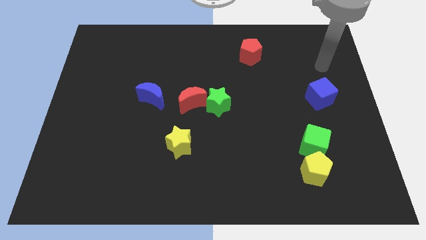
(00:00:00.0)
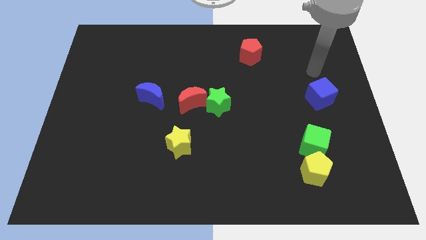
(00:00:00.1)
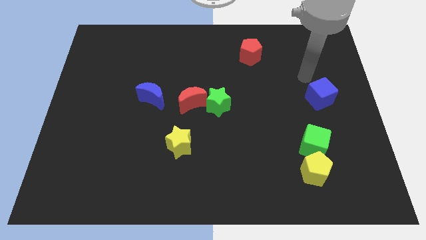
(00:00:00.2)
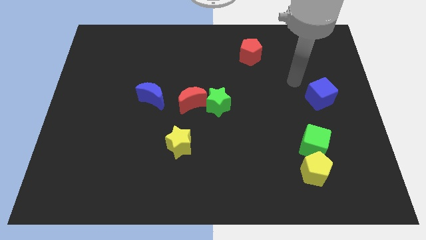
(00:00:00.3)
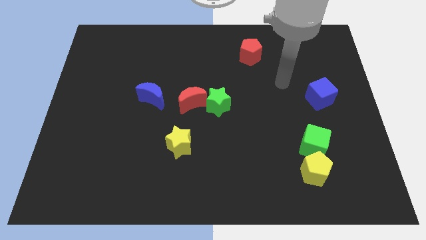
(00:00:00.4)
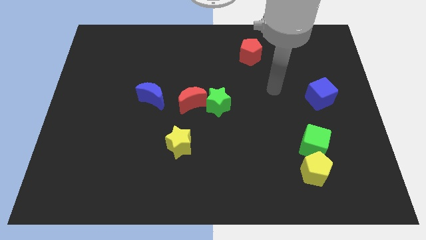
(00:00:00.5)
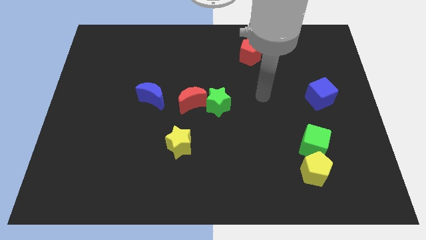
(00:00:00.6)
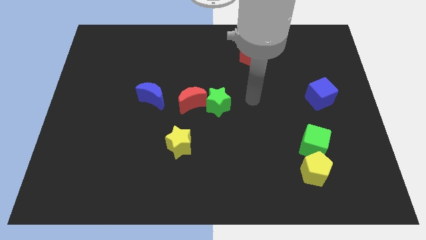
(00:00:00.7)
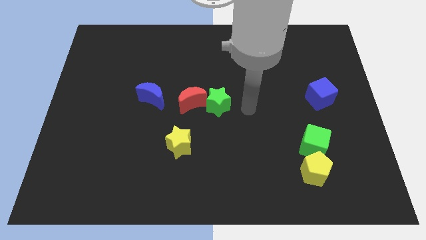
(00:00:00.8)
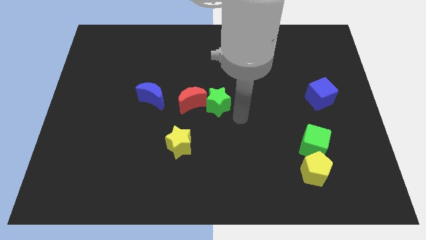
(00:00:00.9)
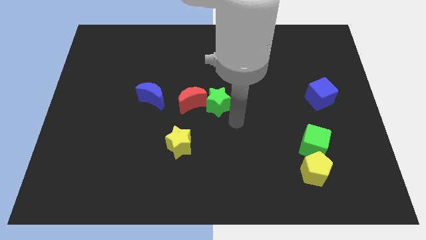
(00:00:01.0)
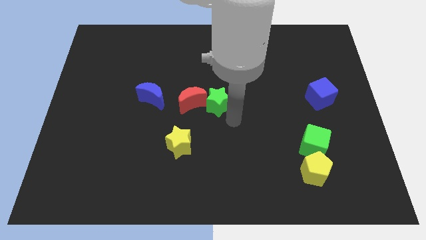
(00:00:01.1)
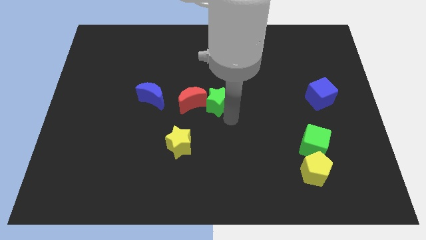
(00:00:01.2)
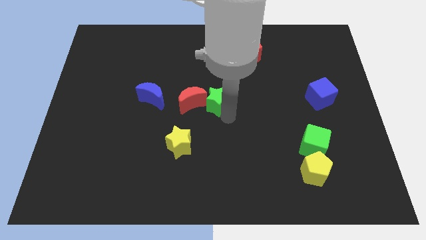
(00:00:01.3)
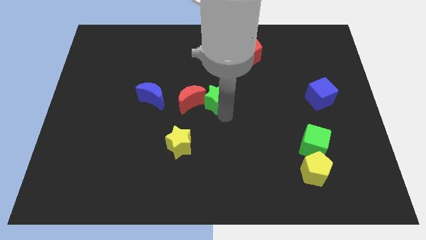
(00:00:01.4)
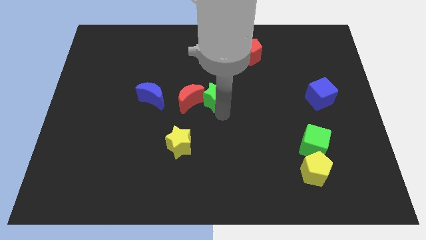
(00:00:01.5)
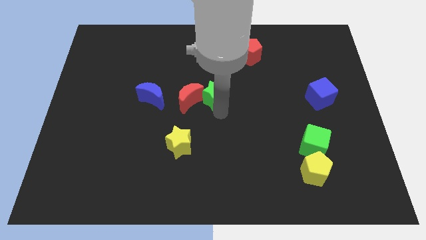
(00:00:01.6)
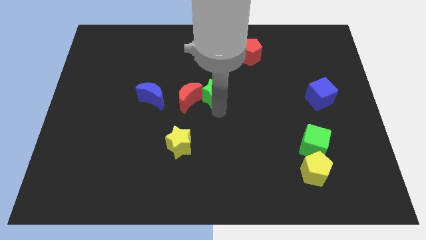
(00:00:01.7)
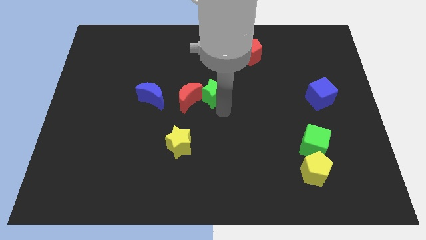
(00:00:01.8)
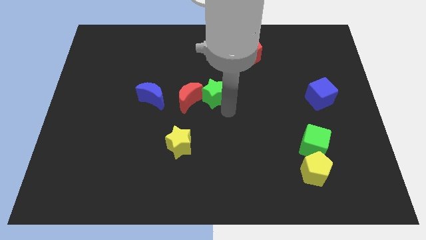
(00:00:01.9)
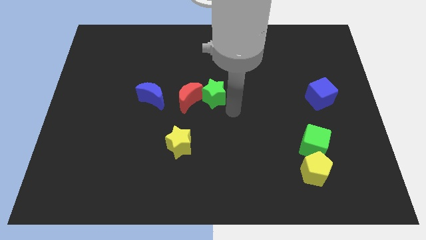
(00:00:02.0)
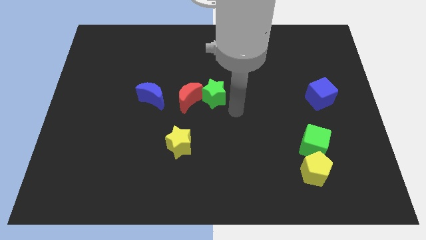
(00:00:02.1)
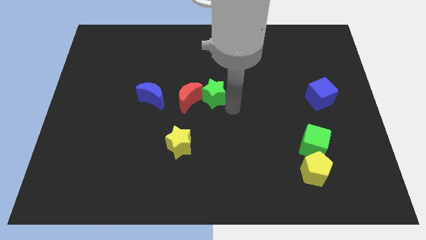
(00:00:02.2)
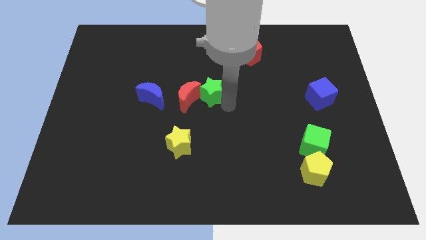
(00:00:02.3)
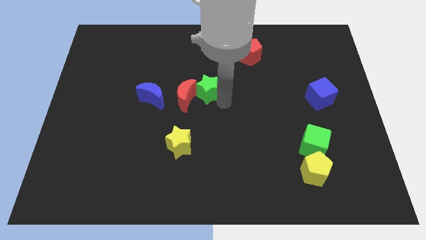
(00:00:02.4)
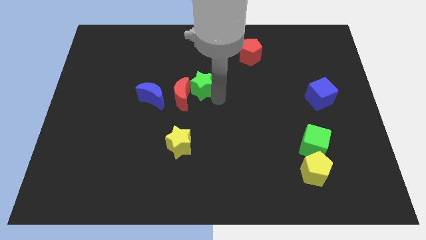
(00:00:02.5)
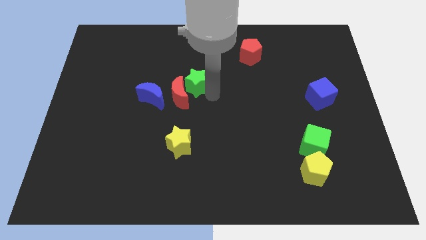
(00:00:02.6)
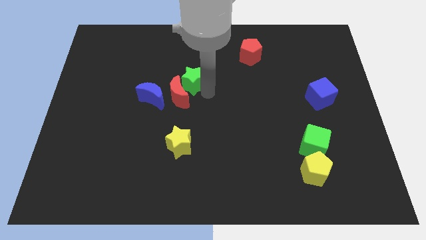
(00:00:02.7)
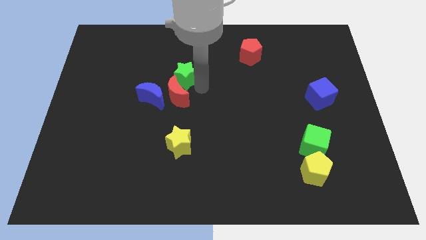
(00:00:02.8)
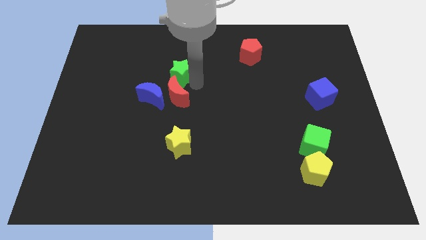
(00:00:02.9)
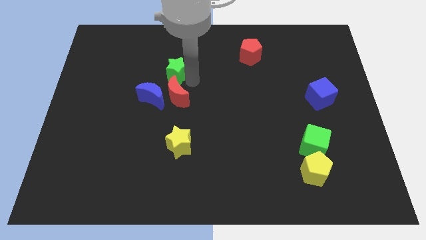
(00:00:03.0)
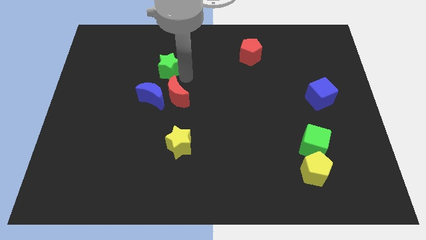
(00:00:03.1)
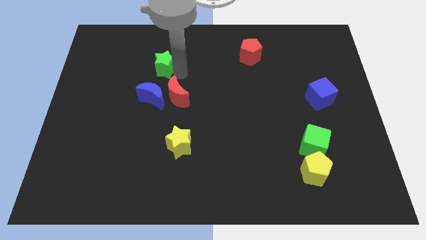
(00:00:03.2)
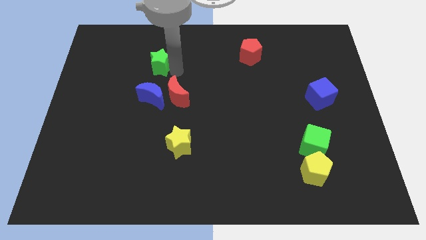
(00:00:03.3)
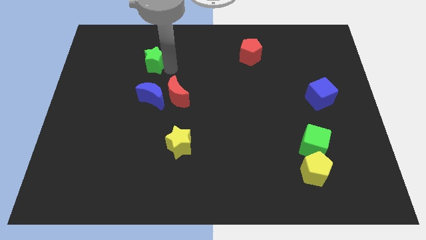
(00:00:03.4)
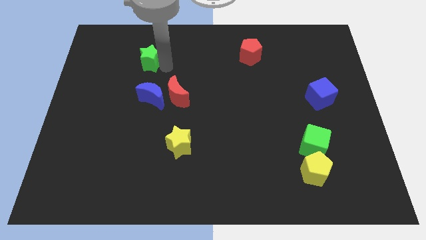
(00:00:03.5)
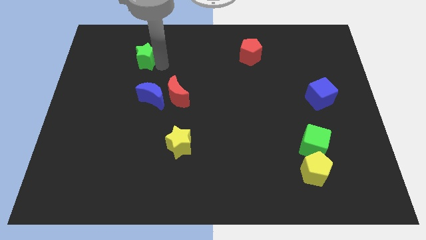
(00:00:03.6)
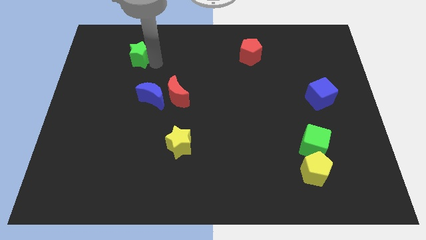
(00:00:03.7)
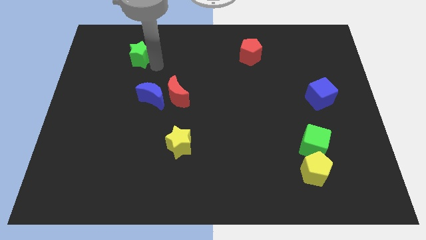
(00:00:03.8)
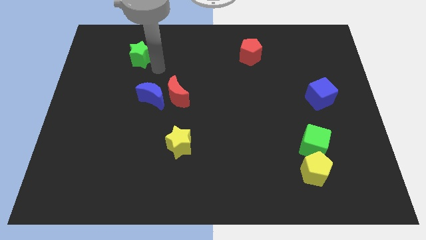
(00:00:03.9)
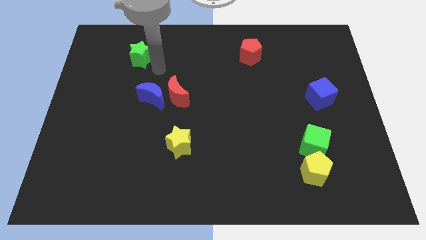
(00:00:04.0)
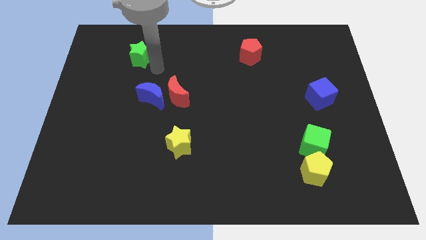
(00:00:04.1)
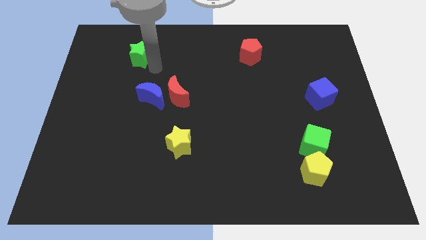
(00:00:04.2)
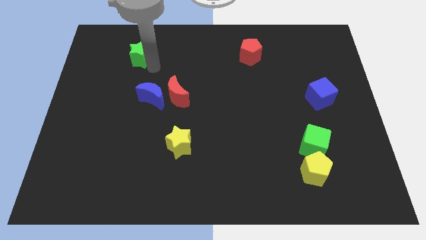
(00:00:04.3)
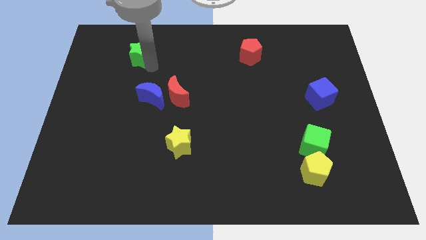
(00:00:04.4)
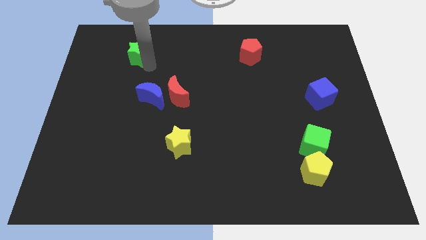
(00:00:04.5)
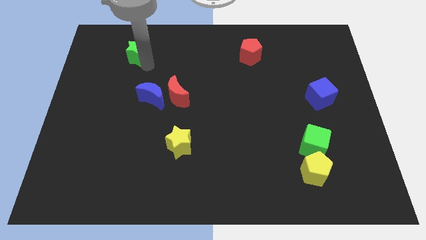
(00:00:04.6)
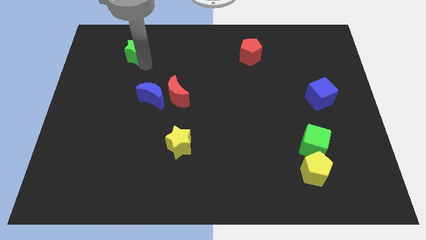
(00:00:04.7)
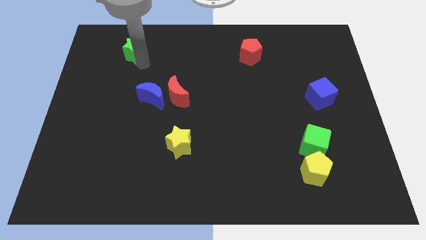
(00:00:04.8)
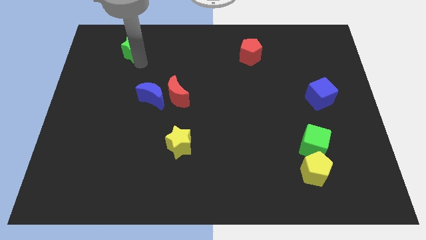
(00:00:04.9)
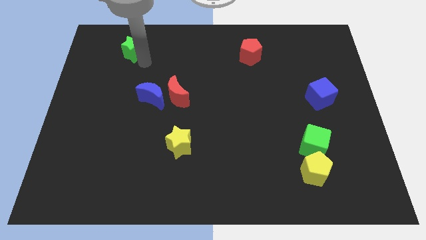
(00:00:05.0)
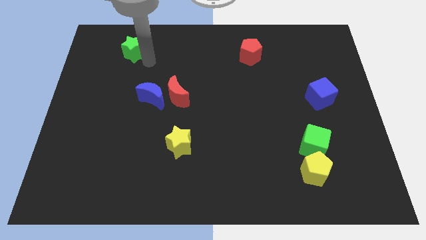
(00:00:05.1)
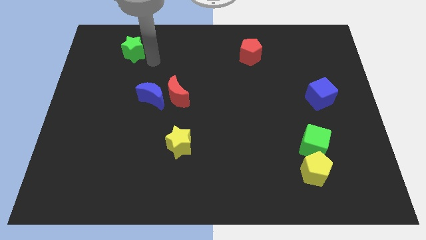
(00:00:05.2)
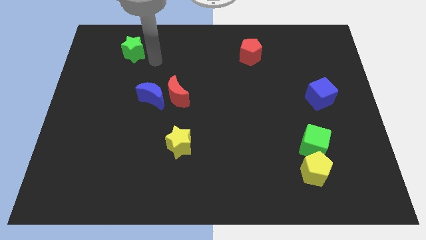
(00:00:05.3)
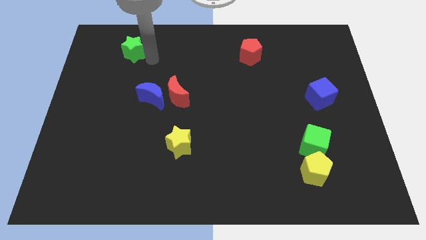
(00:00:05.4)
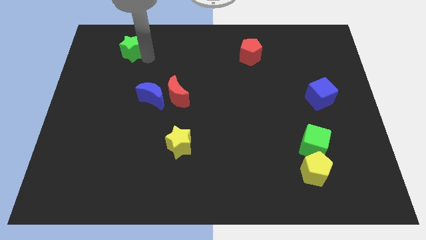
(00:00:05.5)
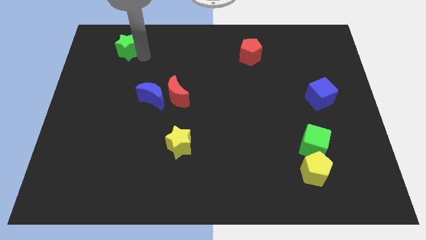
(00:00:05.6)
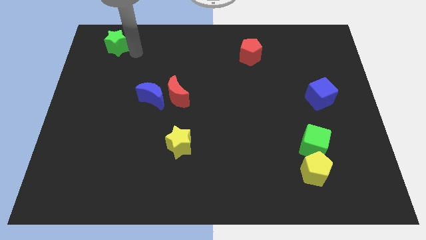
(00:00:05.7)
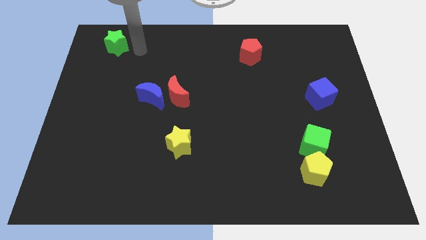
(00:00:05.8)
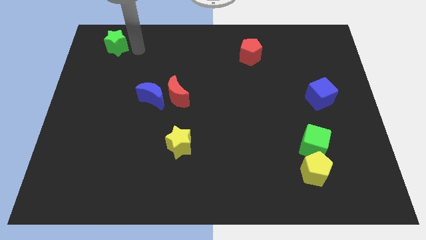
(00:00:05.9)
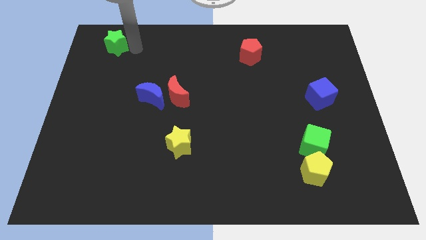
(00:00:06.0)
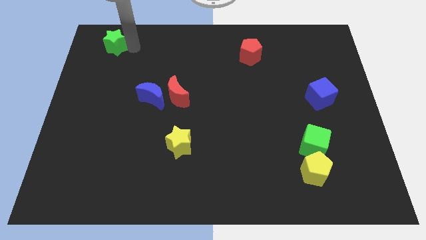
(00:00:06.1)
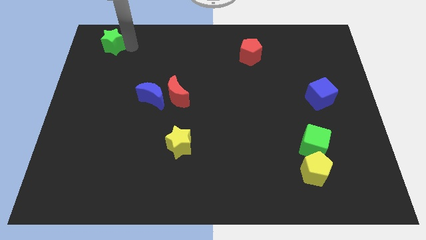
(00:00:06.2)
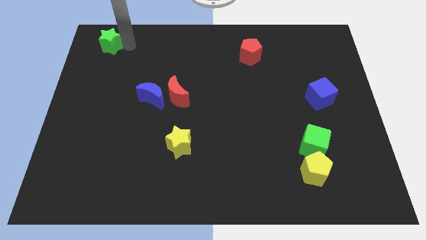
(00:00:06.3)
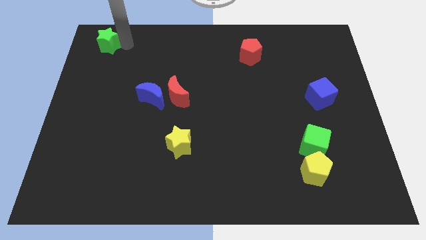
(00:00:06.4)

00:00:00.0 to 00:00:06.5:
slide the green star to the top left corner
